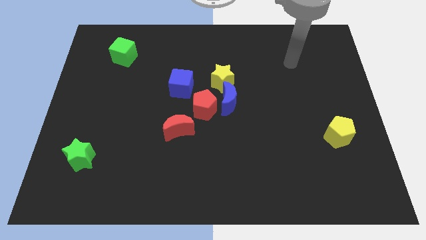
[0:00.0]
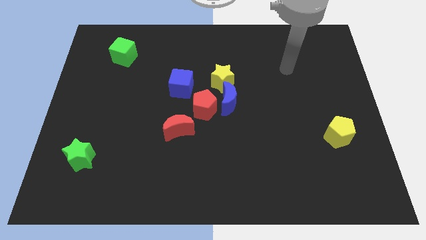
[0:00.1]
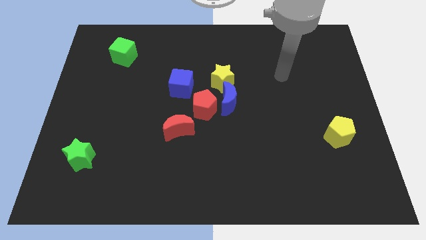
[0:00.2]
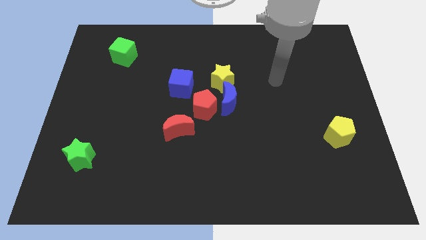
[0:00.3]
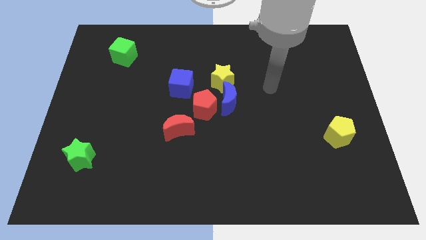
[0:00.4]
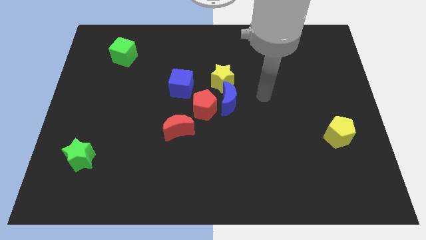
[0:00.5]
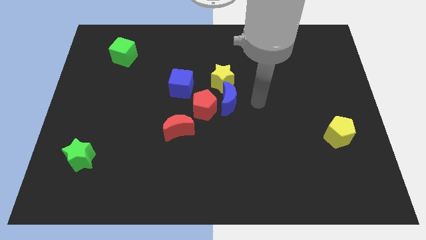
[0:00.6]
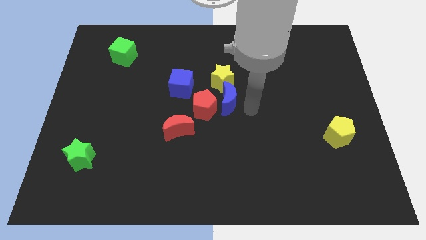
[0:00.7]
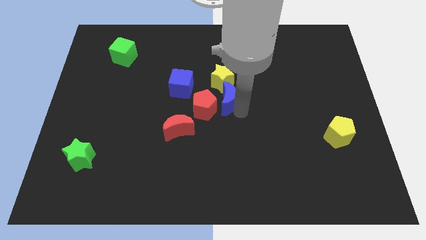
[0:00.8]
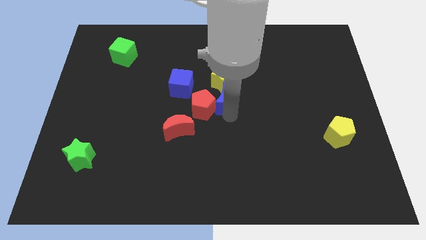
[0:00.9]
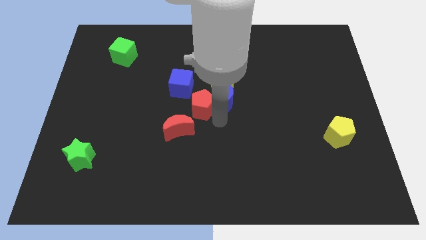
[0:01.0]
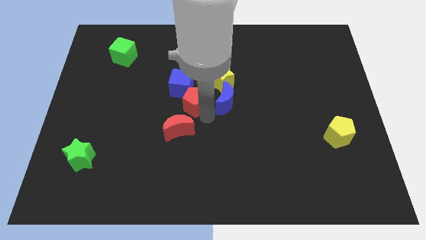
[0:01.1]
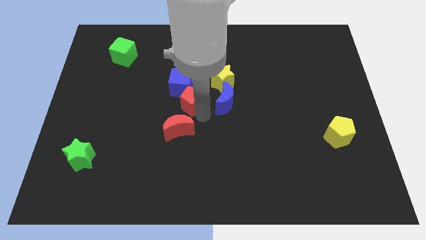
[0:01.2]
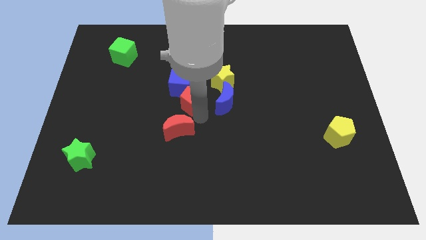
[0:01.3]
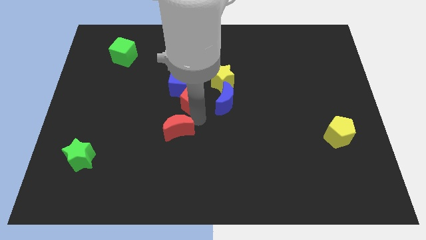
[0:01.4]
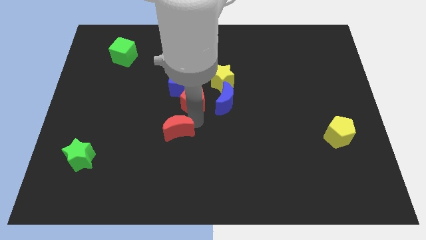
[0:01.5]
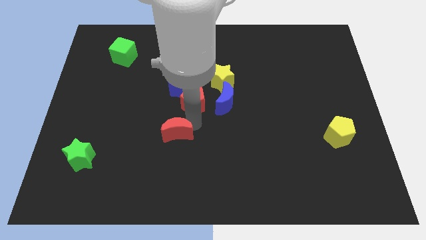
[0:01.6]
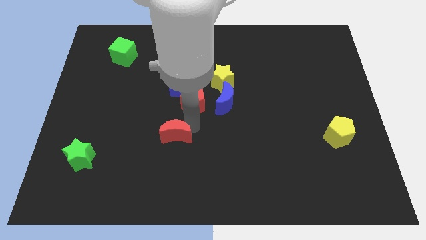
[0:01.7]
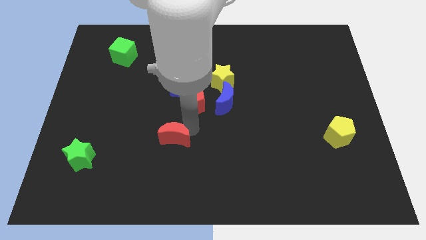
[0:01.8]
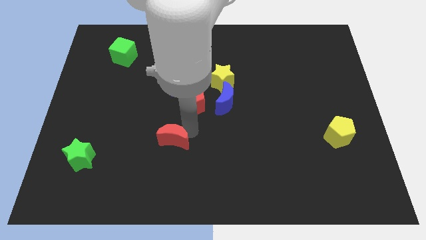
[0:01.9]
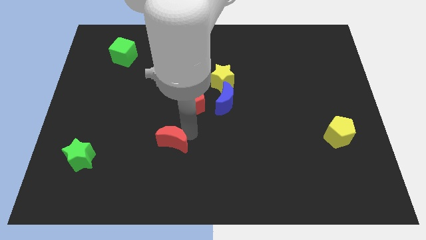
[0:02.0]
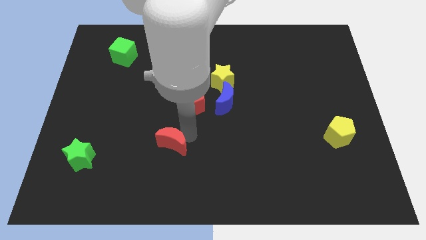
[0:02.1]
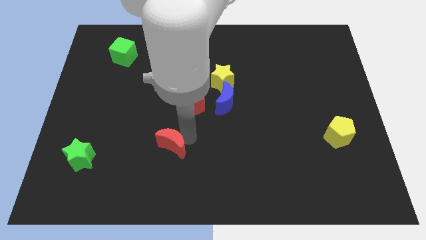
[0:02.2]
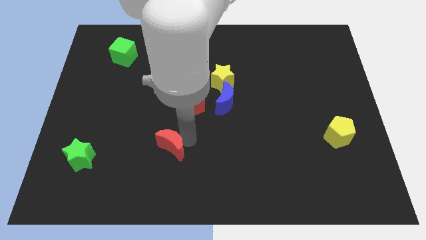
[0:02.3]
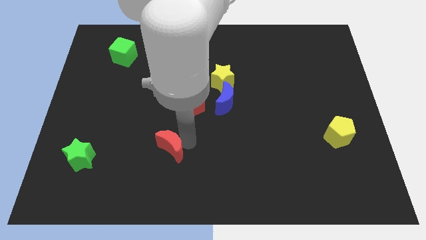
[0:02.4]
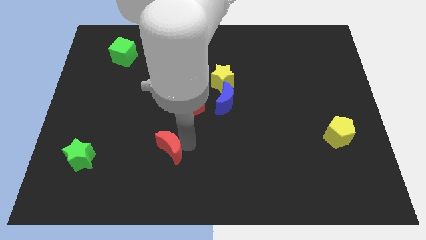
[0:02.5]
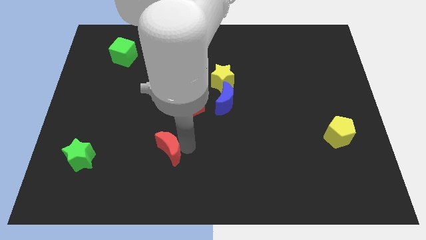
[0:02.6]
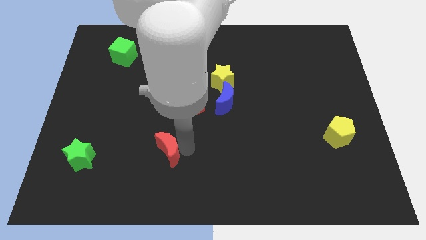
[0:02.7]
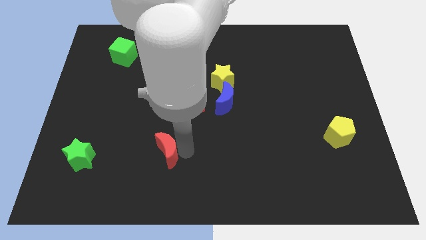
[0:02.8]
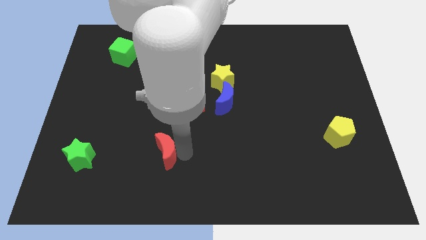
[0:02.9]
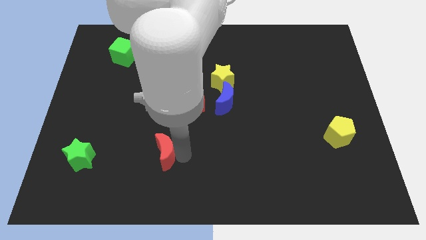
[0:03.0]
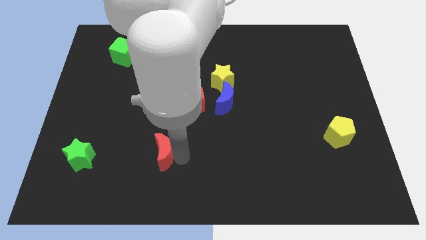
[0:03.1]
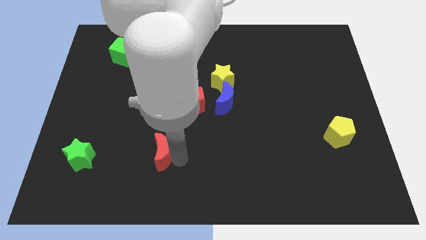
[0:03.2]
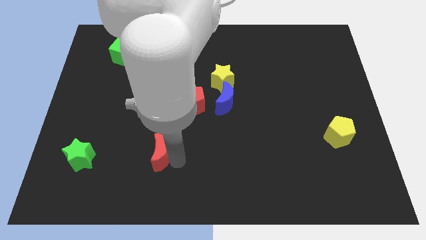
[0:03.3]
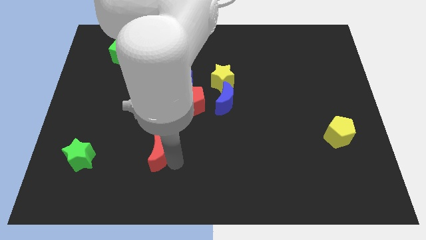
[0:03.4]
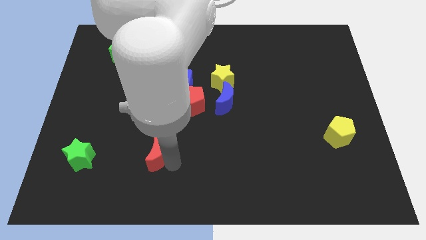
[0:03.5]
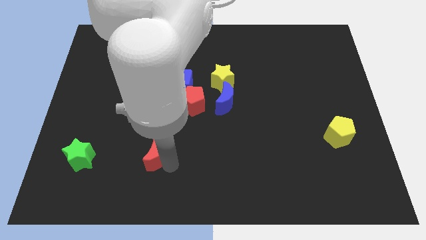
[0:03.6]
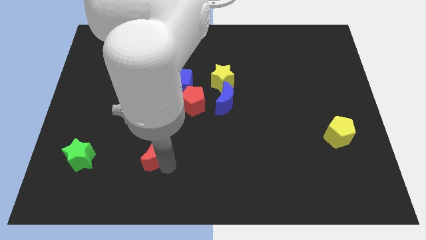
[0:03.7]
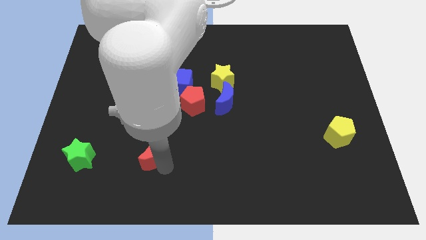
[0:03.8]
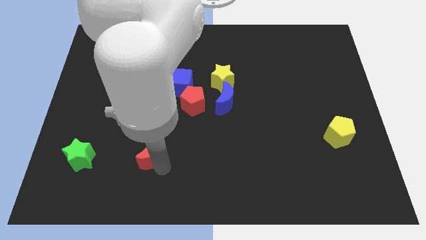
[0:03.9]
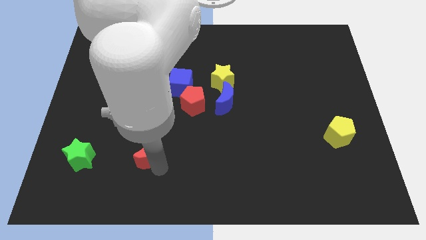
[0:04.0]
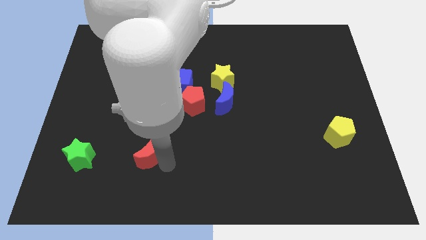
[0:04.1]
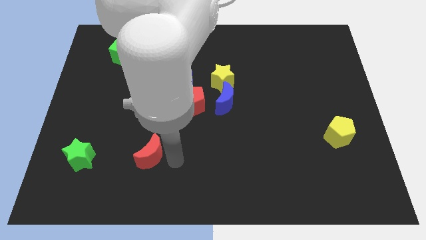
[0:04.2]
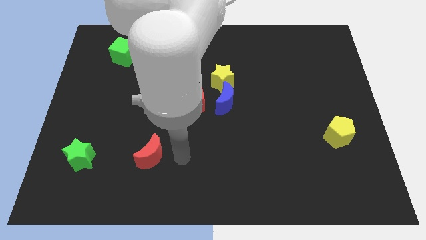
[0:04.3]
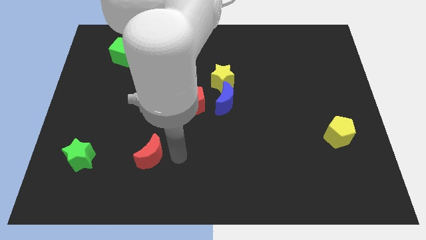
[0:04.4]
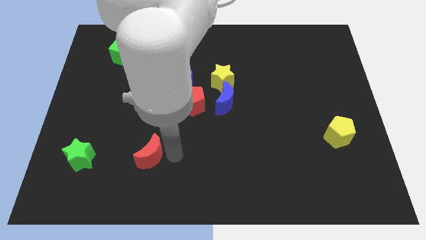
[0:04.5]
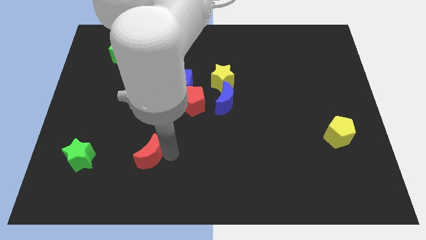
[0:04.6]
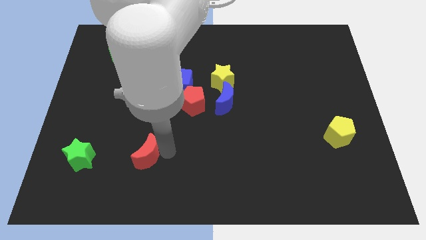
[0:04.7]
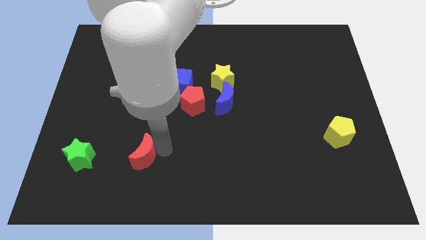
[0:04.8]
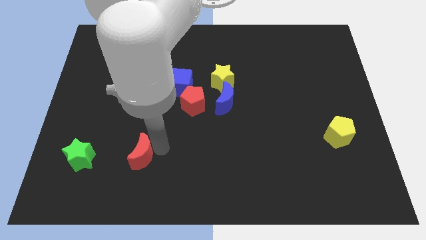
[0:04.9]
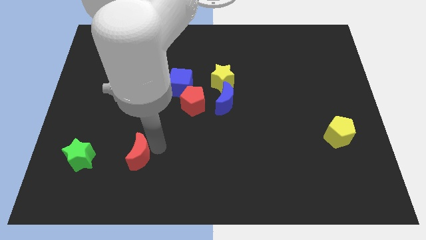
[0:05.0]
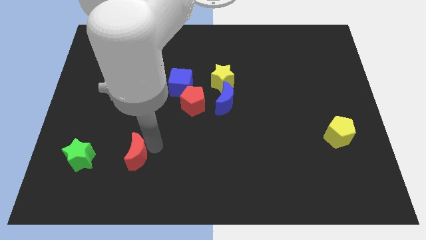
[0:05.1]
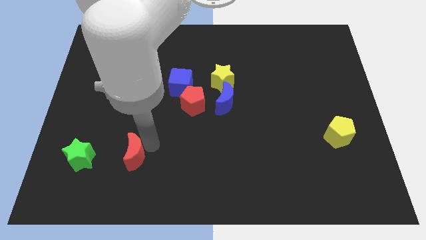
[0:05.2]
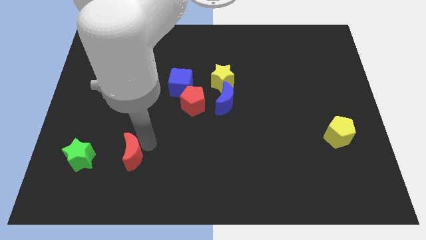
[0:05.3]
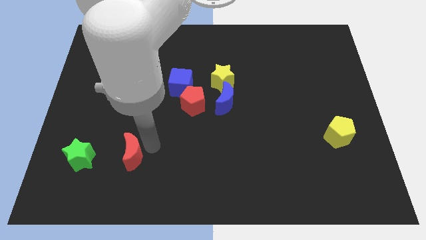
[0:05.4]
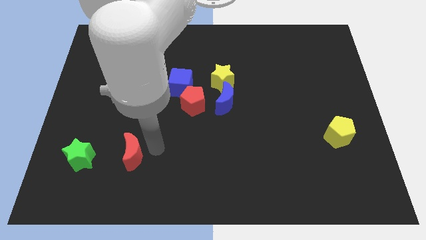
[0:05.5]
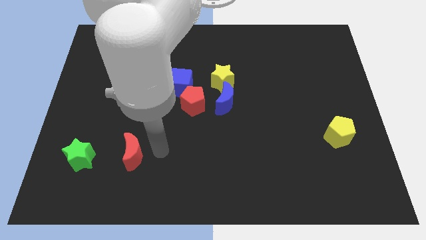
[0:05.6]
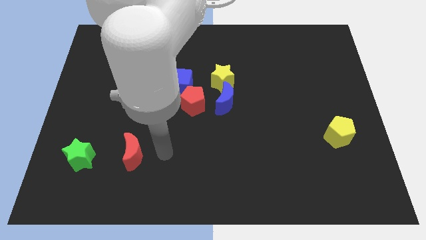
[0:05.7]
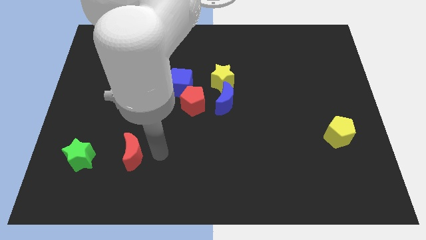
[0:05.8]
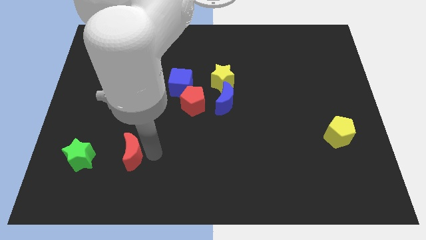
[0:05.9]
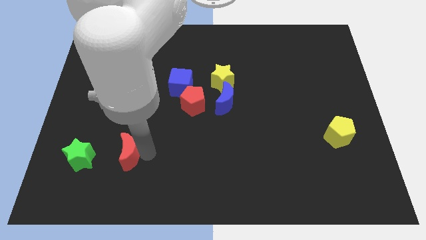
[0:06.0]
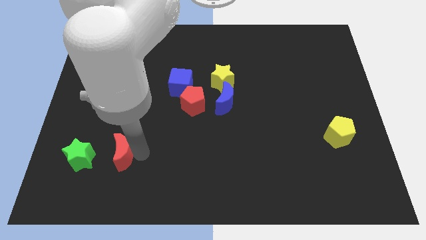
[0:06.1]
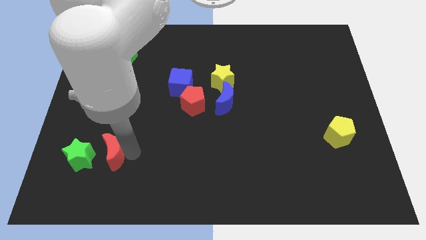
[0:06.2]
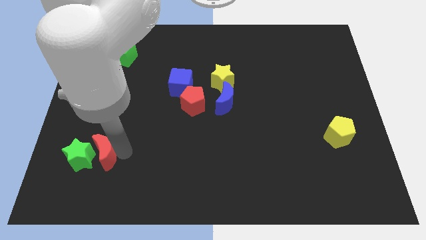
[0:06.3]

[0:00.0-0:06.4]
slide the red moon next to the green star

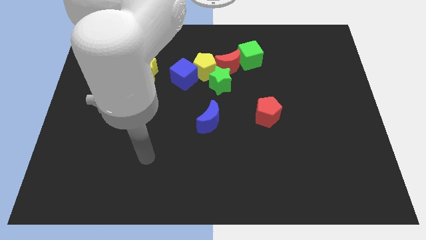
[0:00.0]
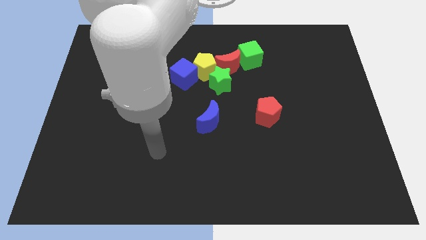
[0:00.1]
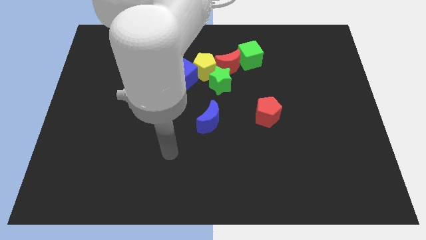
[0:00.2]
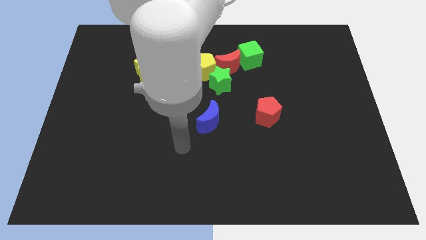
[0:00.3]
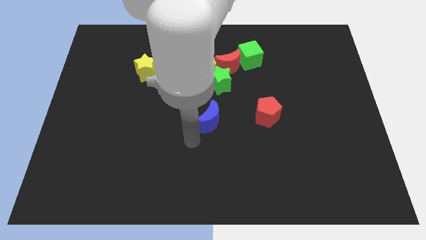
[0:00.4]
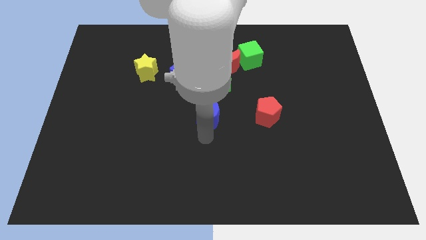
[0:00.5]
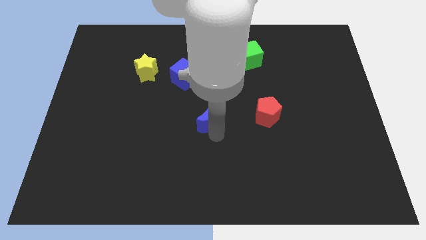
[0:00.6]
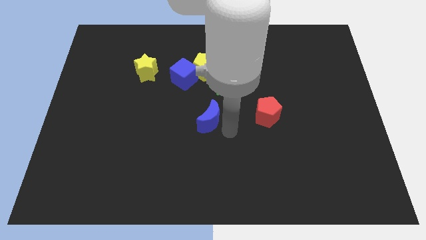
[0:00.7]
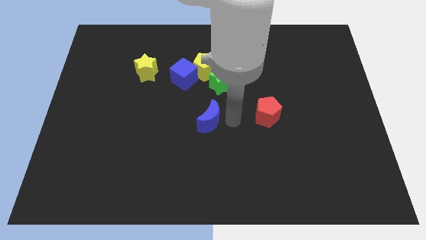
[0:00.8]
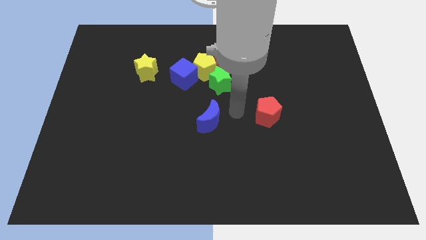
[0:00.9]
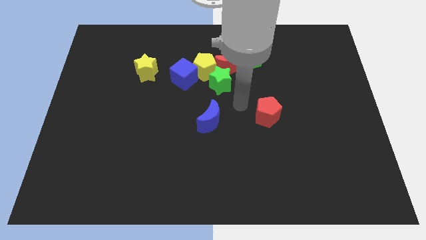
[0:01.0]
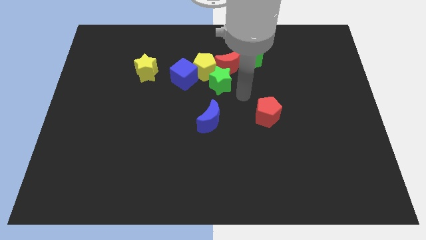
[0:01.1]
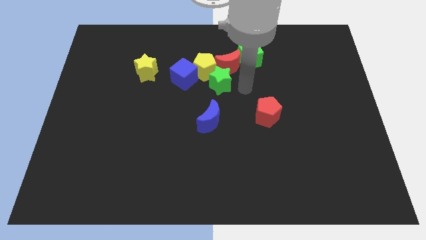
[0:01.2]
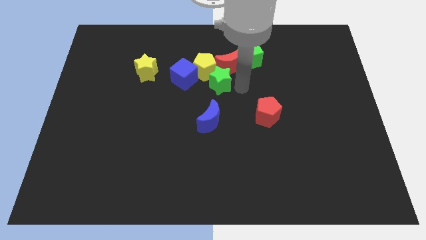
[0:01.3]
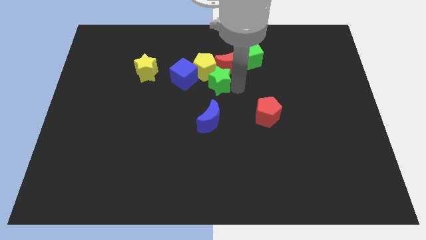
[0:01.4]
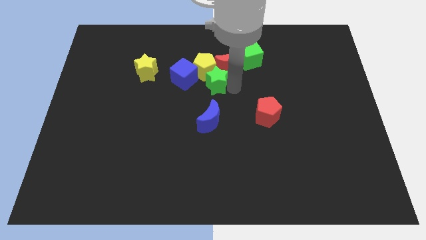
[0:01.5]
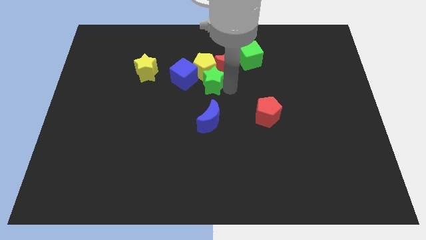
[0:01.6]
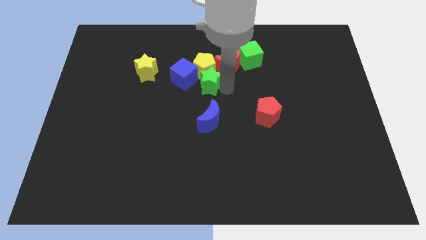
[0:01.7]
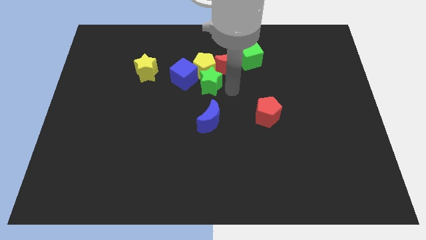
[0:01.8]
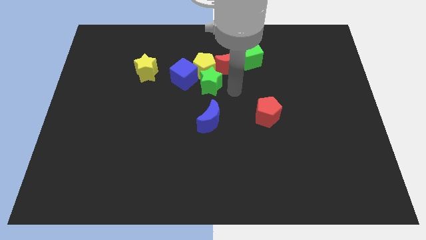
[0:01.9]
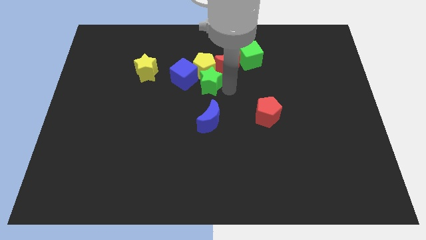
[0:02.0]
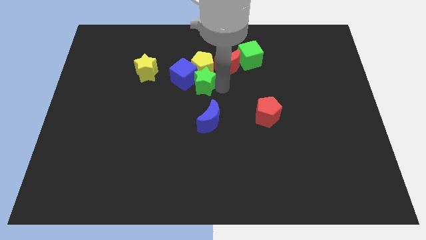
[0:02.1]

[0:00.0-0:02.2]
push the green star towards the blue cube
